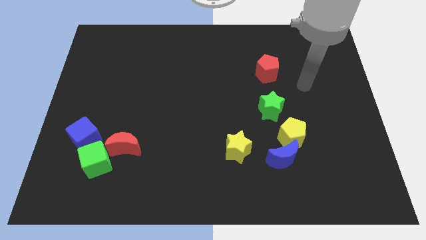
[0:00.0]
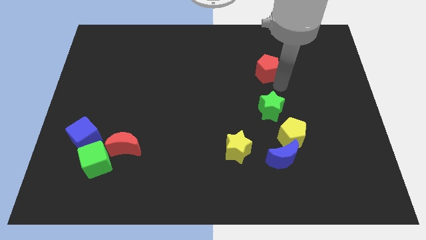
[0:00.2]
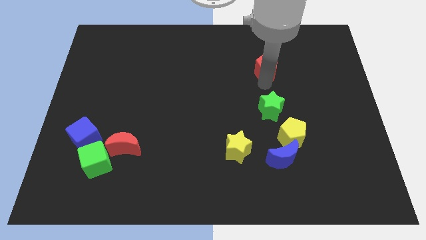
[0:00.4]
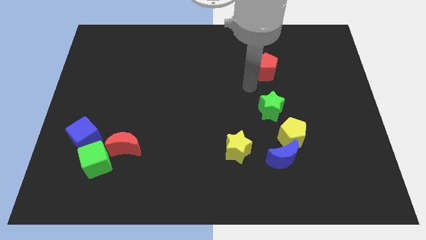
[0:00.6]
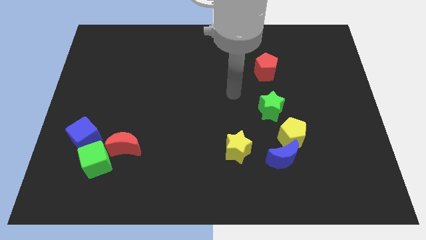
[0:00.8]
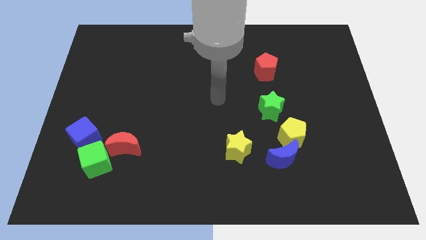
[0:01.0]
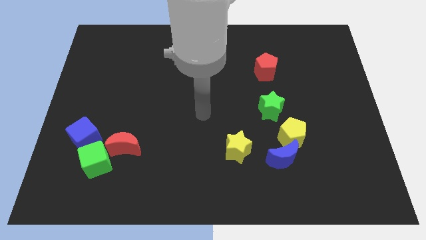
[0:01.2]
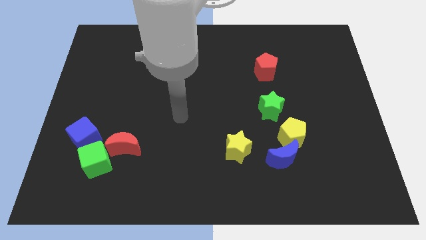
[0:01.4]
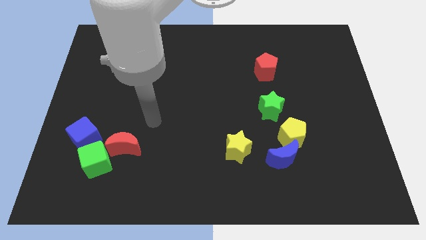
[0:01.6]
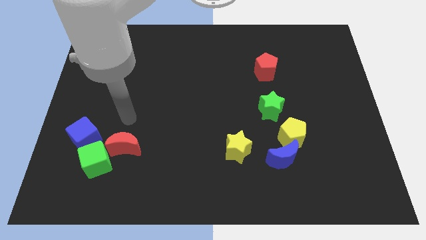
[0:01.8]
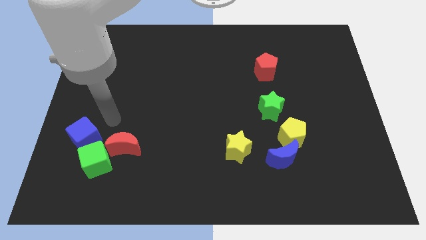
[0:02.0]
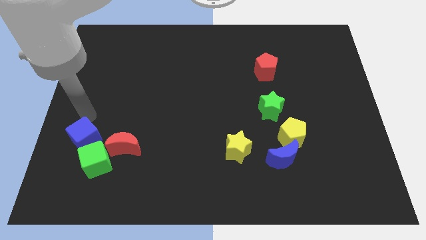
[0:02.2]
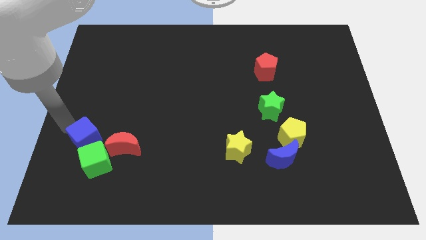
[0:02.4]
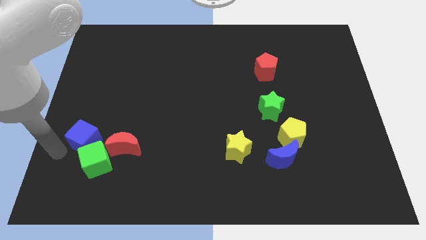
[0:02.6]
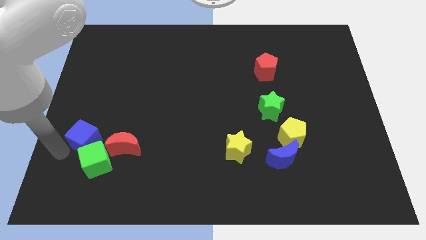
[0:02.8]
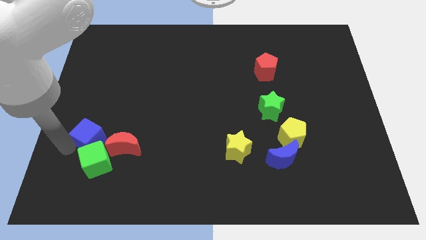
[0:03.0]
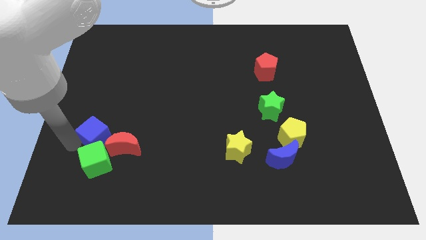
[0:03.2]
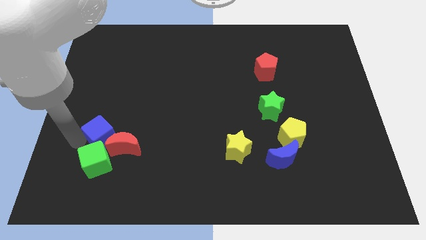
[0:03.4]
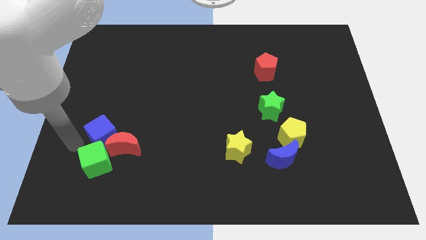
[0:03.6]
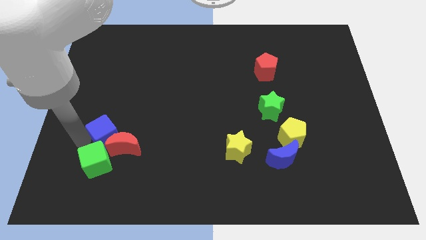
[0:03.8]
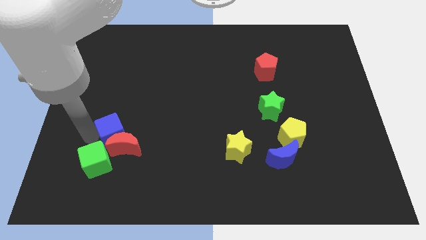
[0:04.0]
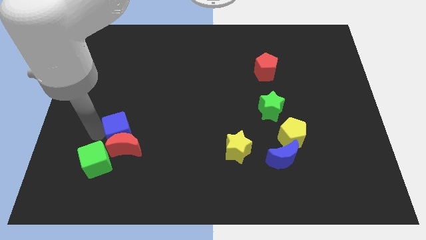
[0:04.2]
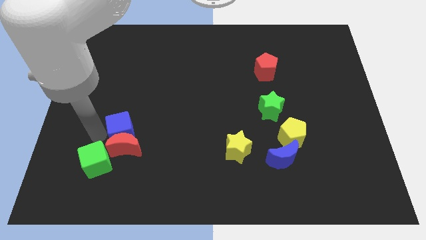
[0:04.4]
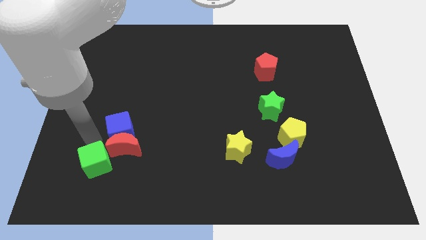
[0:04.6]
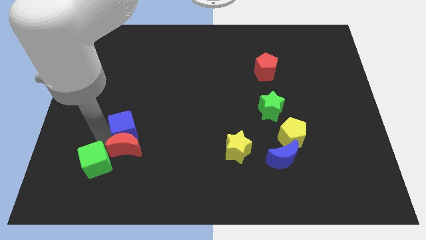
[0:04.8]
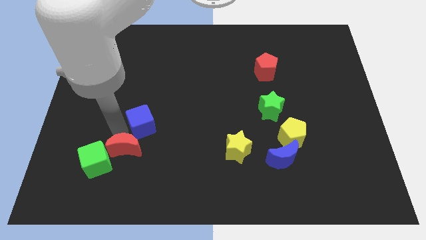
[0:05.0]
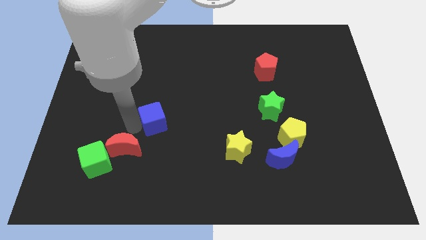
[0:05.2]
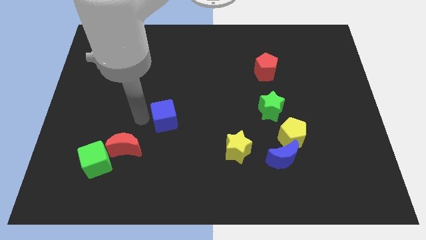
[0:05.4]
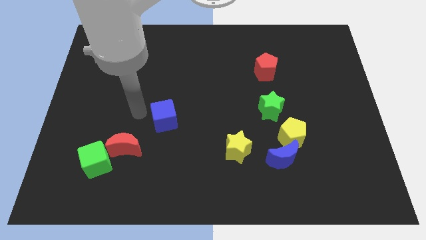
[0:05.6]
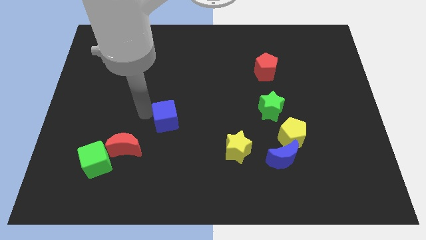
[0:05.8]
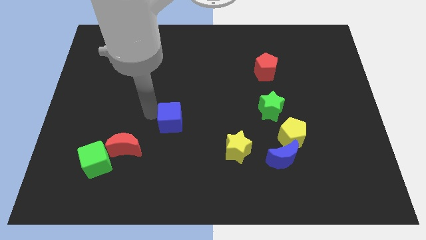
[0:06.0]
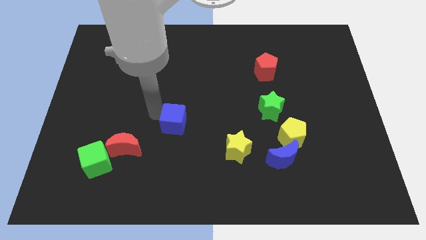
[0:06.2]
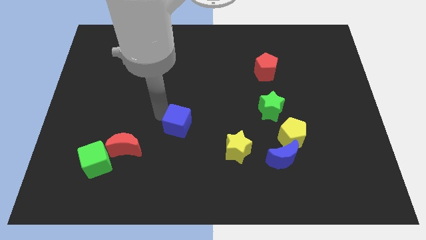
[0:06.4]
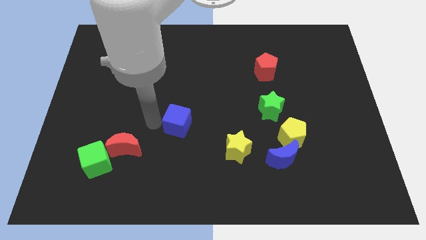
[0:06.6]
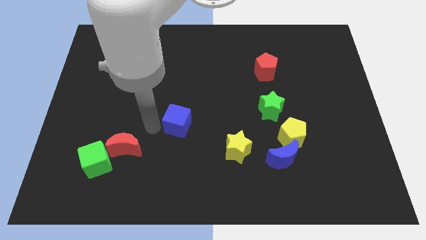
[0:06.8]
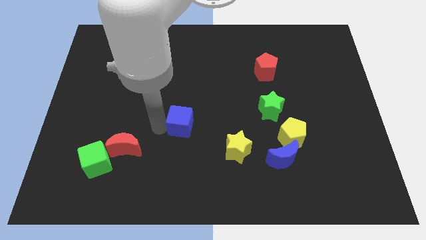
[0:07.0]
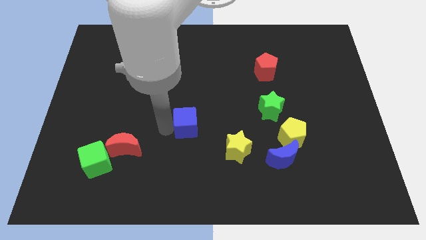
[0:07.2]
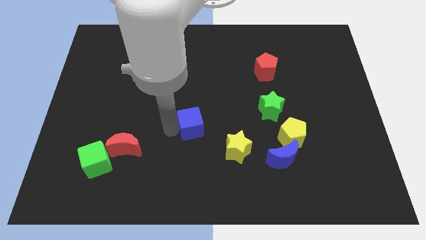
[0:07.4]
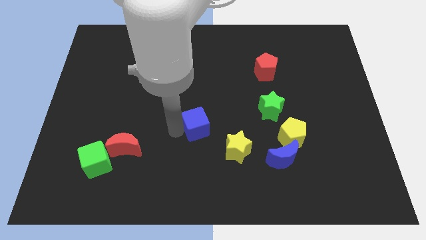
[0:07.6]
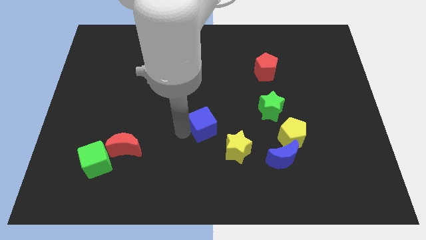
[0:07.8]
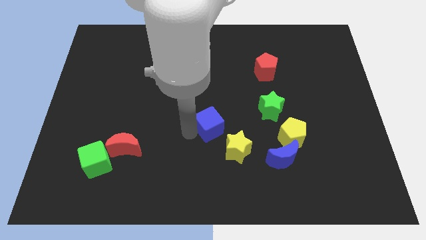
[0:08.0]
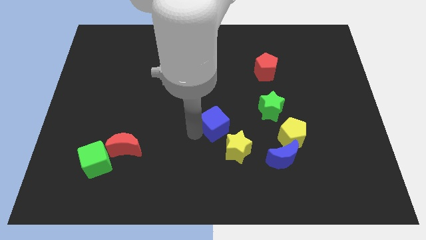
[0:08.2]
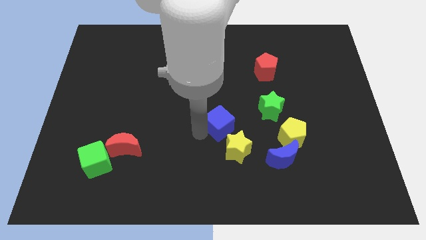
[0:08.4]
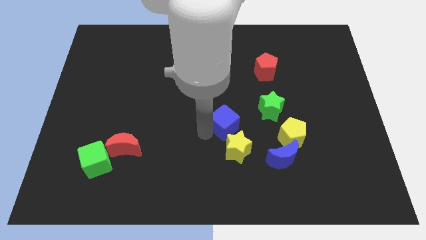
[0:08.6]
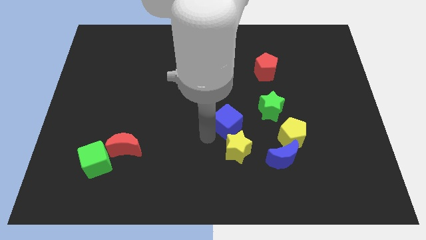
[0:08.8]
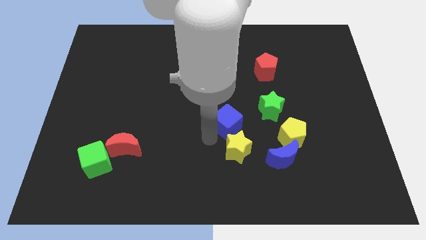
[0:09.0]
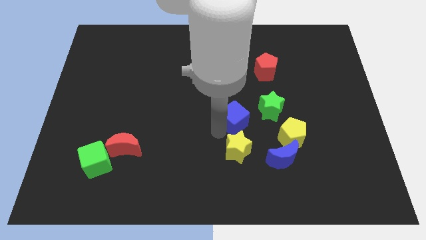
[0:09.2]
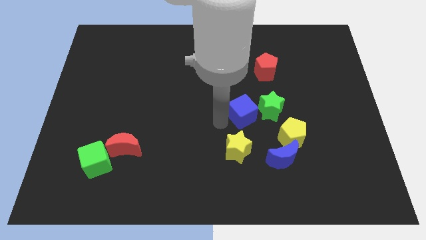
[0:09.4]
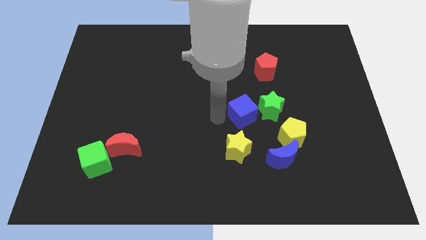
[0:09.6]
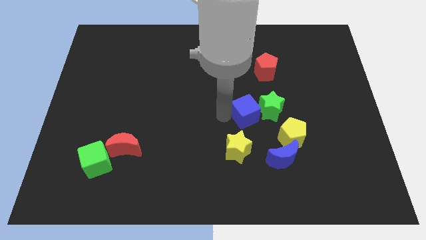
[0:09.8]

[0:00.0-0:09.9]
put the blue cube towards the green star

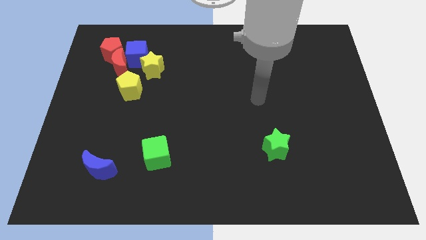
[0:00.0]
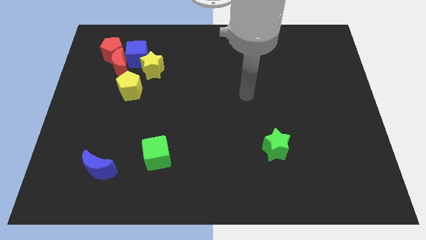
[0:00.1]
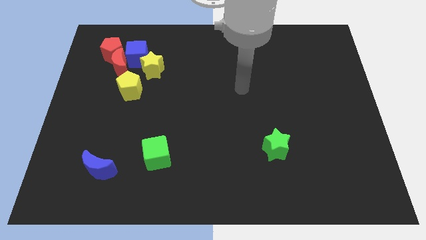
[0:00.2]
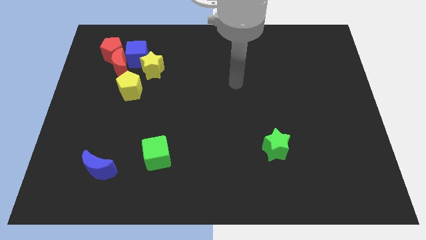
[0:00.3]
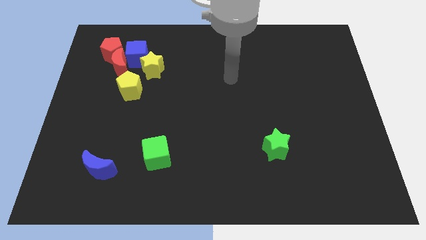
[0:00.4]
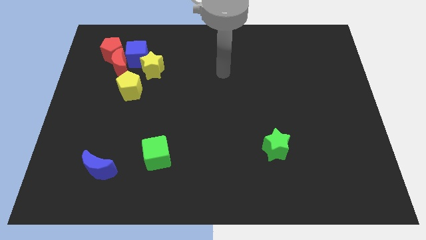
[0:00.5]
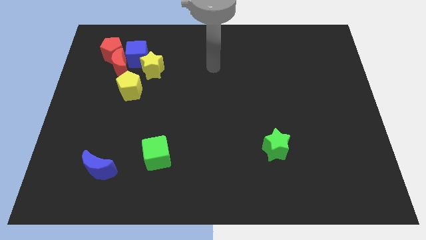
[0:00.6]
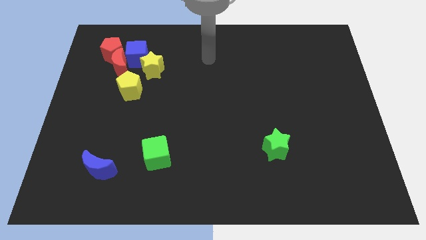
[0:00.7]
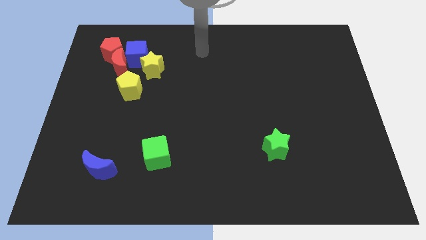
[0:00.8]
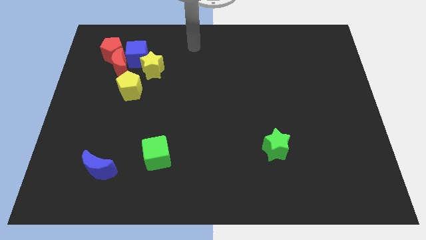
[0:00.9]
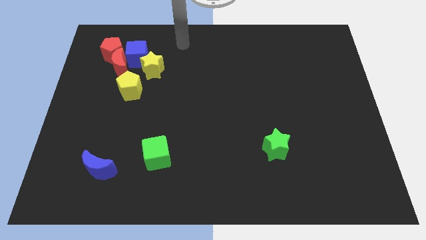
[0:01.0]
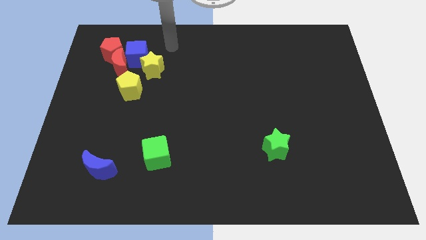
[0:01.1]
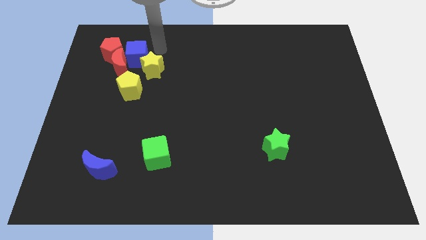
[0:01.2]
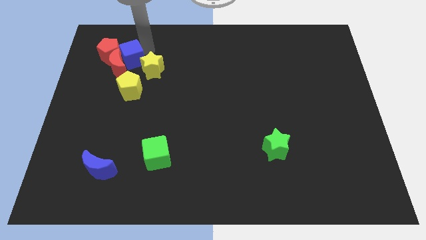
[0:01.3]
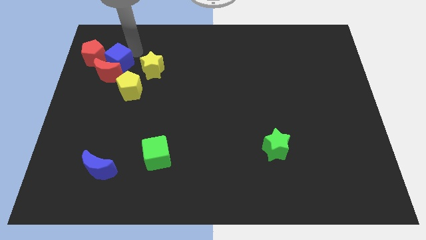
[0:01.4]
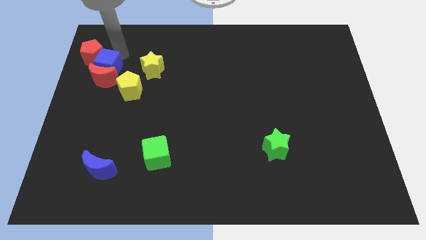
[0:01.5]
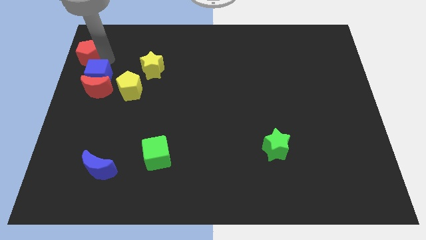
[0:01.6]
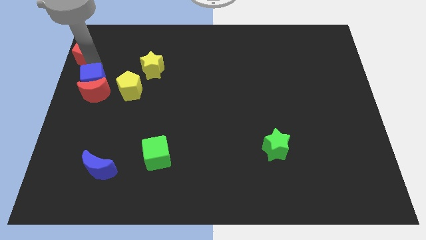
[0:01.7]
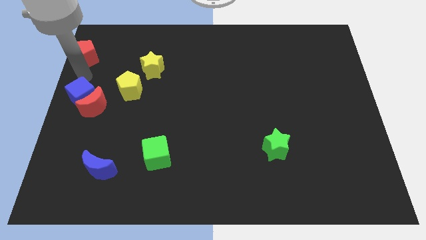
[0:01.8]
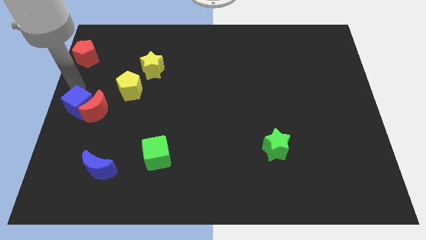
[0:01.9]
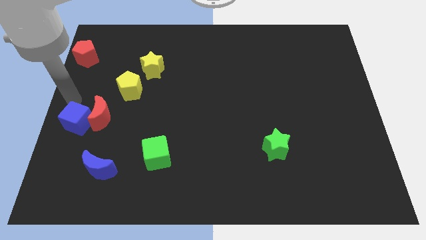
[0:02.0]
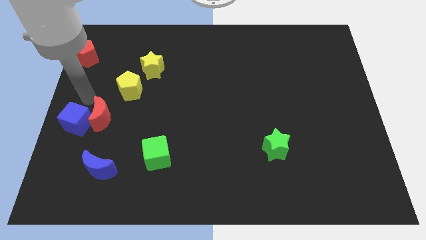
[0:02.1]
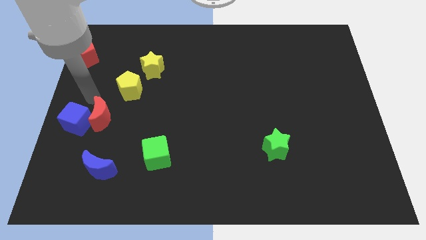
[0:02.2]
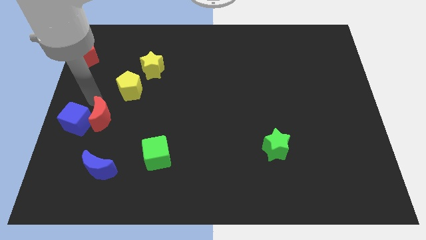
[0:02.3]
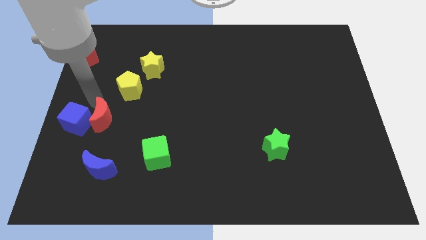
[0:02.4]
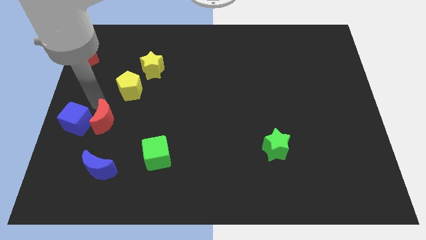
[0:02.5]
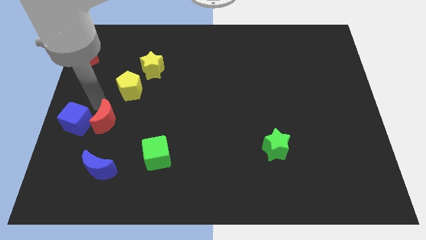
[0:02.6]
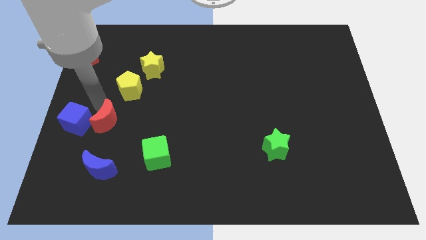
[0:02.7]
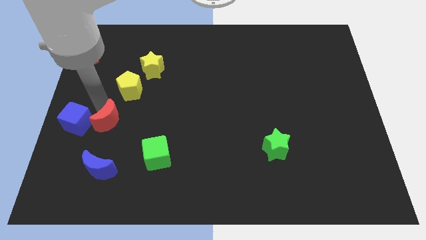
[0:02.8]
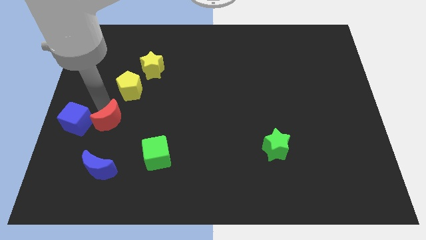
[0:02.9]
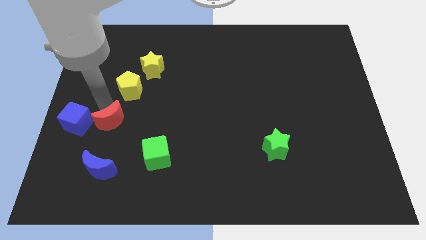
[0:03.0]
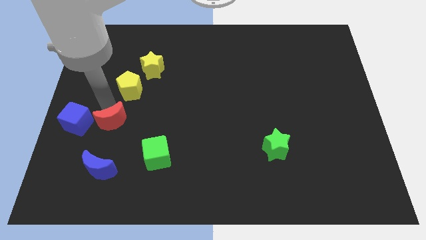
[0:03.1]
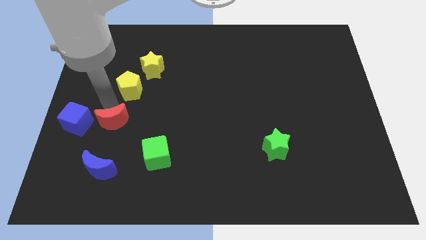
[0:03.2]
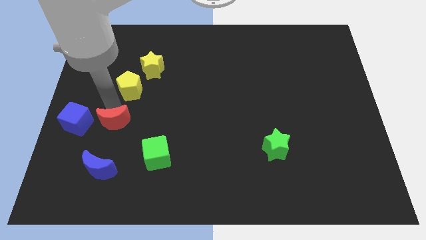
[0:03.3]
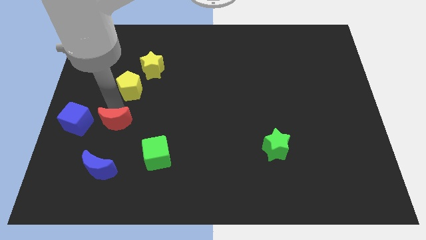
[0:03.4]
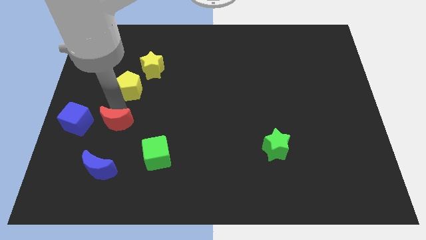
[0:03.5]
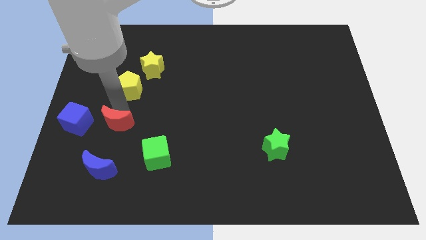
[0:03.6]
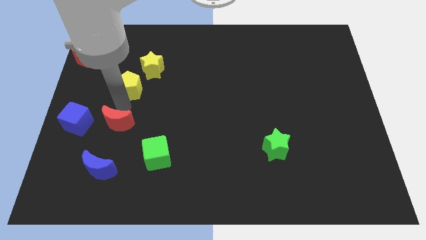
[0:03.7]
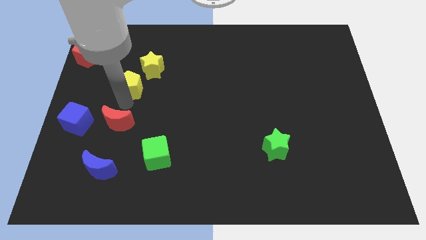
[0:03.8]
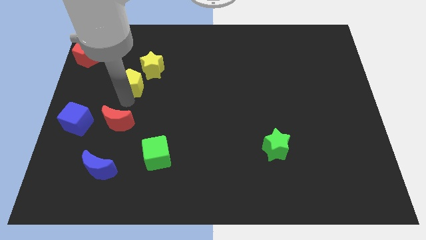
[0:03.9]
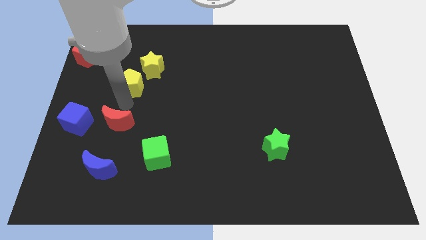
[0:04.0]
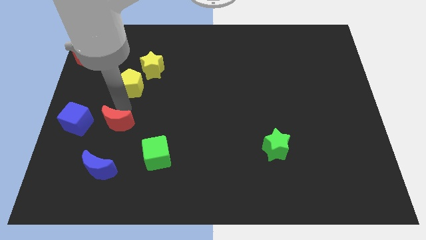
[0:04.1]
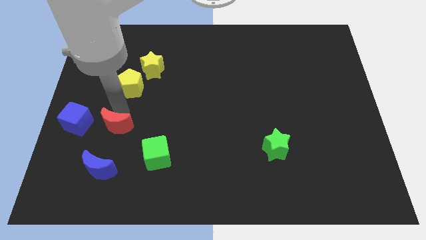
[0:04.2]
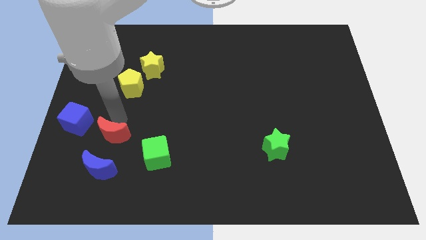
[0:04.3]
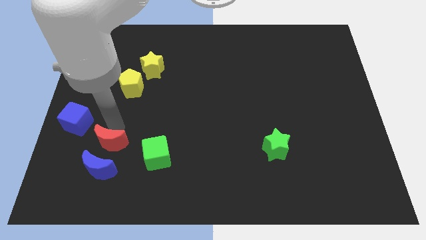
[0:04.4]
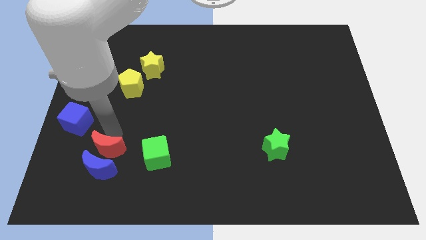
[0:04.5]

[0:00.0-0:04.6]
put the red moon towards the blue moon
